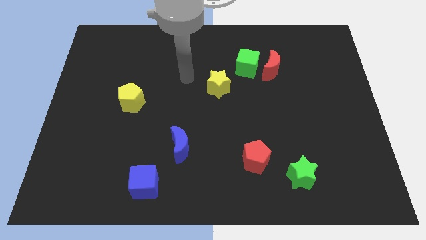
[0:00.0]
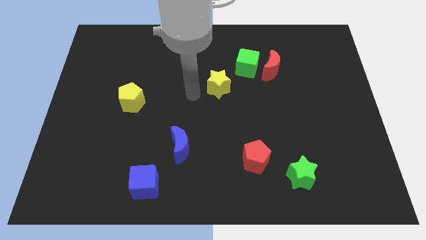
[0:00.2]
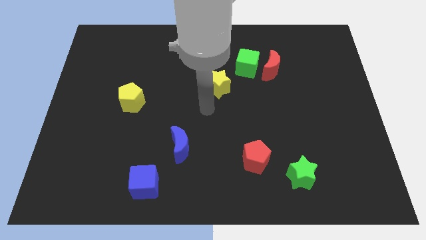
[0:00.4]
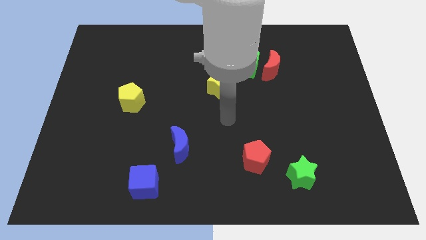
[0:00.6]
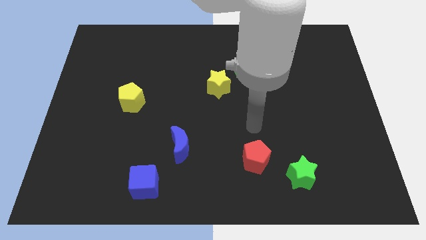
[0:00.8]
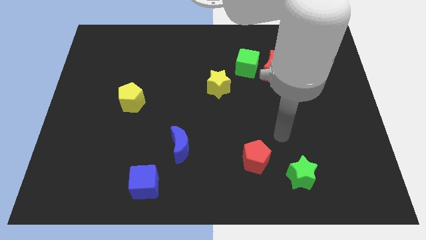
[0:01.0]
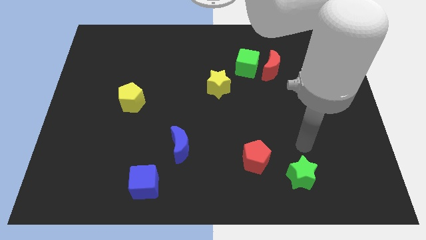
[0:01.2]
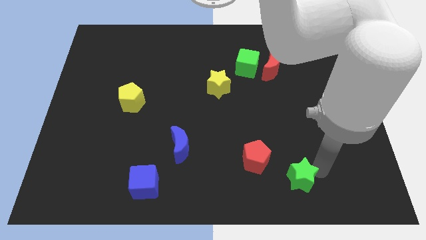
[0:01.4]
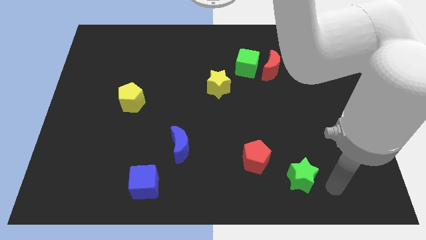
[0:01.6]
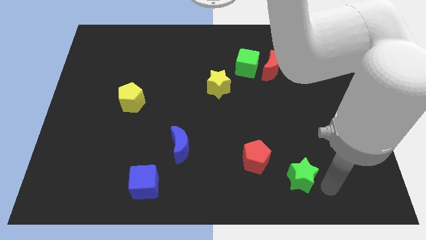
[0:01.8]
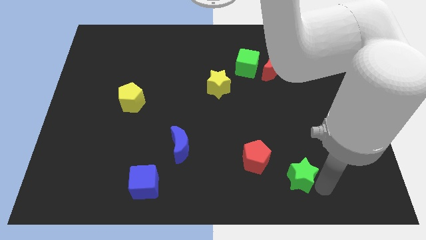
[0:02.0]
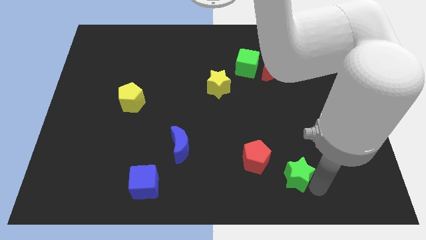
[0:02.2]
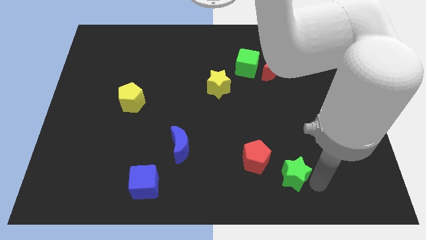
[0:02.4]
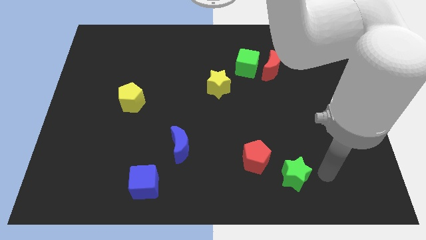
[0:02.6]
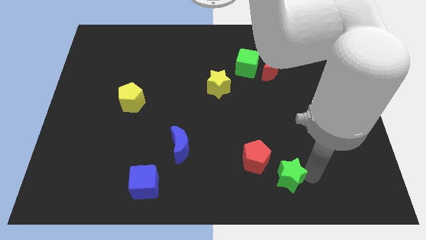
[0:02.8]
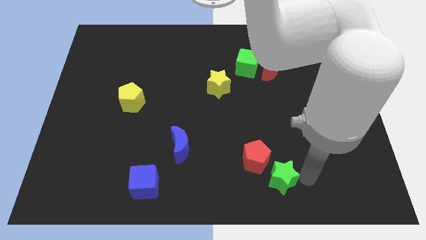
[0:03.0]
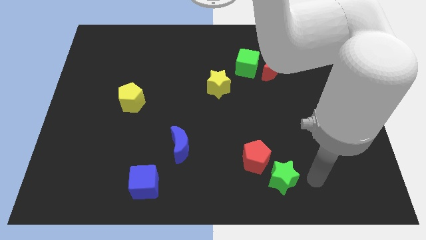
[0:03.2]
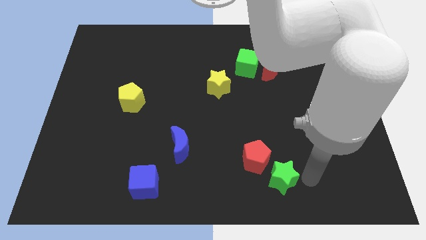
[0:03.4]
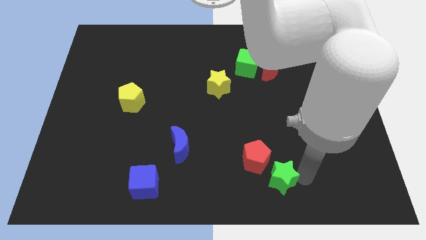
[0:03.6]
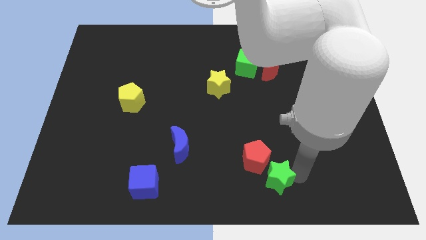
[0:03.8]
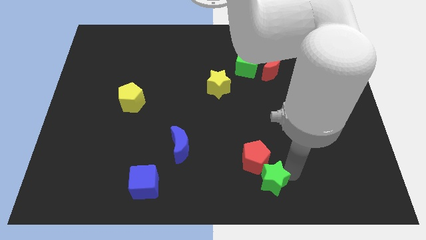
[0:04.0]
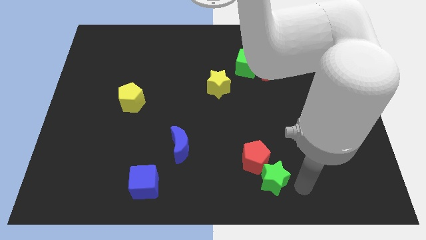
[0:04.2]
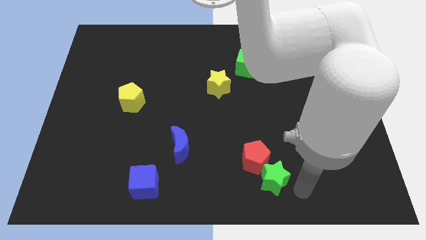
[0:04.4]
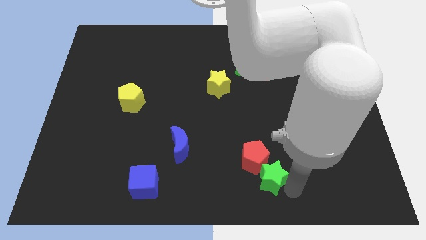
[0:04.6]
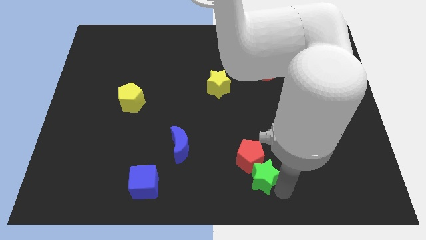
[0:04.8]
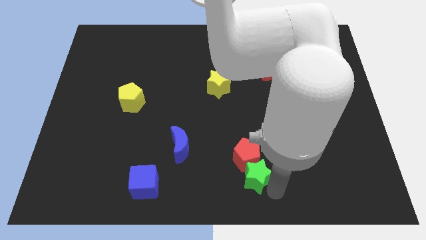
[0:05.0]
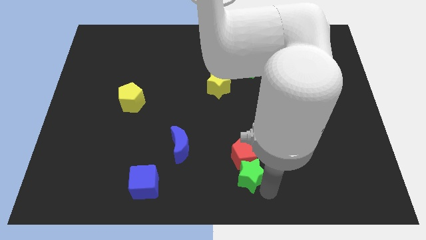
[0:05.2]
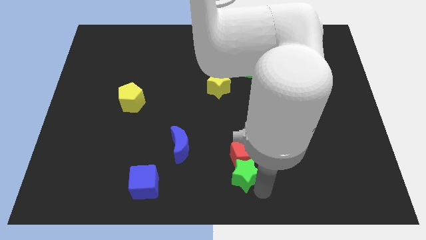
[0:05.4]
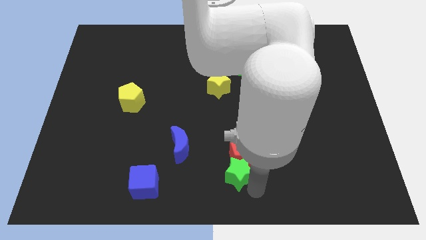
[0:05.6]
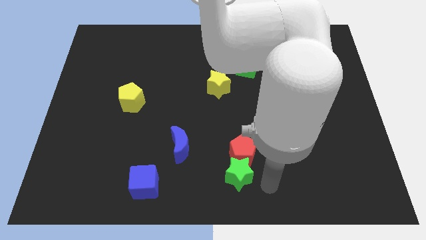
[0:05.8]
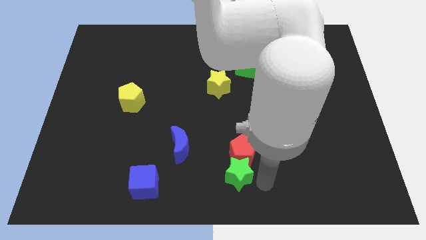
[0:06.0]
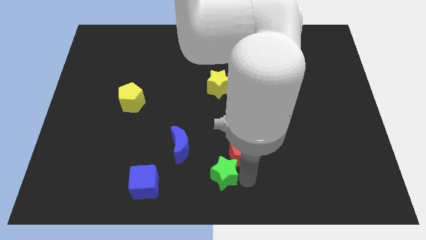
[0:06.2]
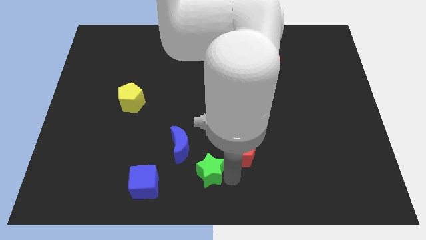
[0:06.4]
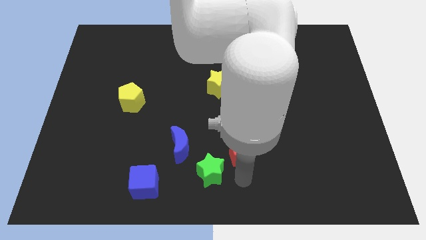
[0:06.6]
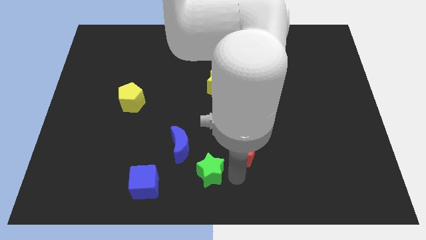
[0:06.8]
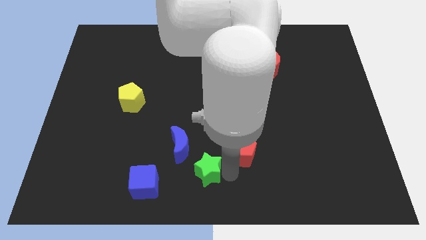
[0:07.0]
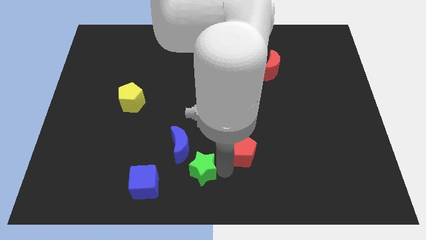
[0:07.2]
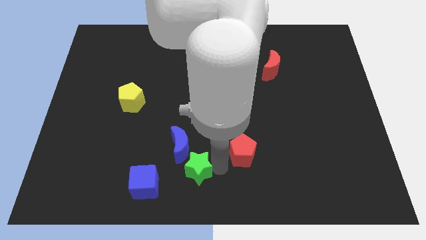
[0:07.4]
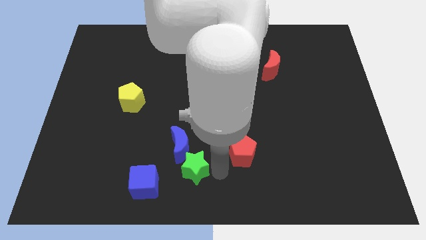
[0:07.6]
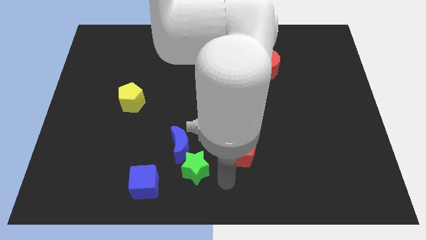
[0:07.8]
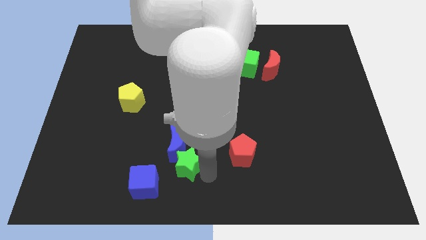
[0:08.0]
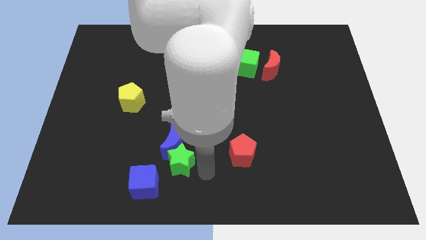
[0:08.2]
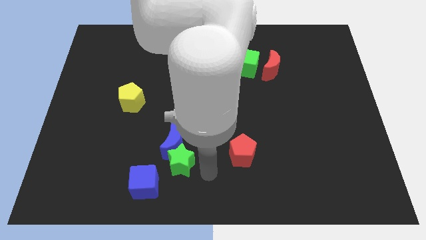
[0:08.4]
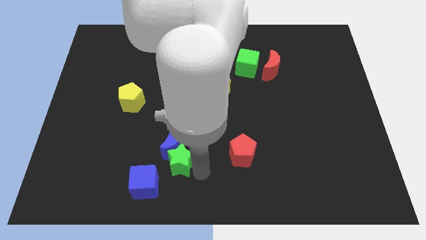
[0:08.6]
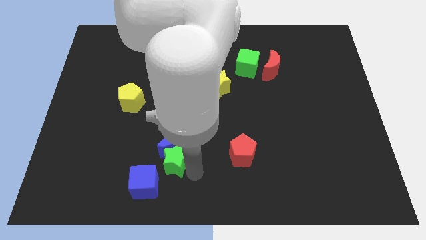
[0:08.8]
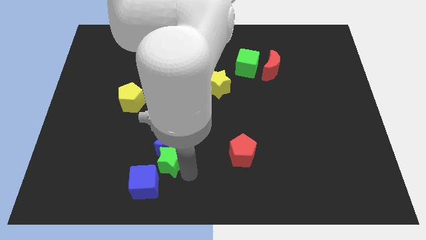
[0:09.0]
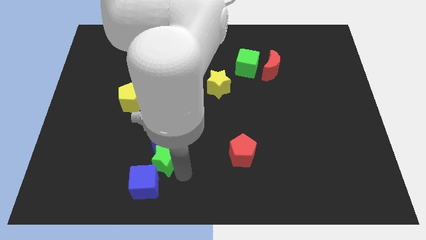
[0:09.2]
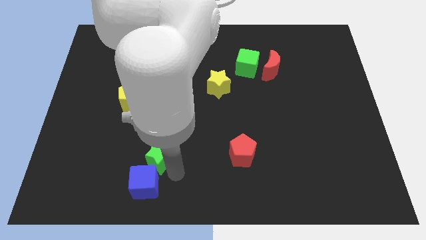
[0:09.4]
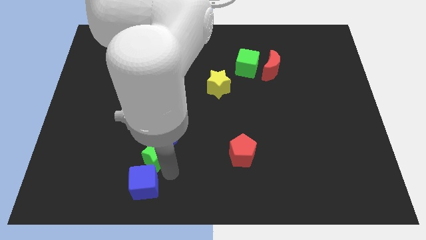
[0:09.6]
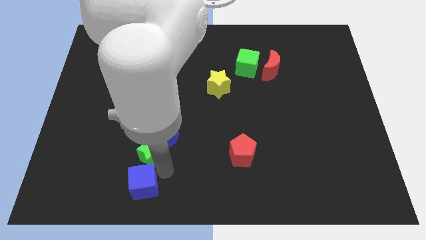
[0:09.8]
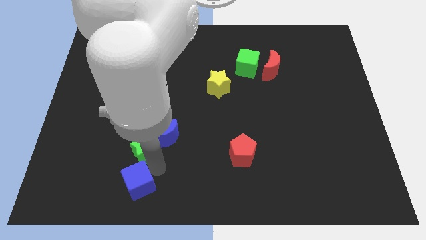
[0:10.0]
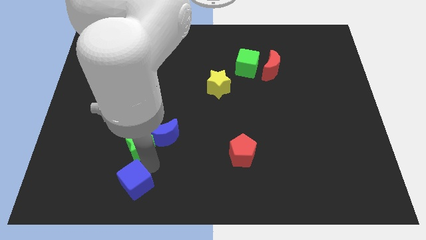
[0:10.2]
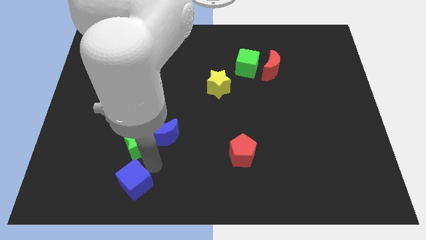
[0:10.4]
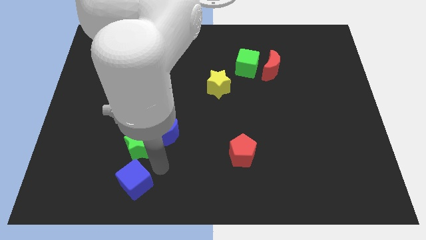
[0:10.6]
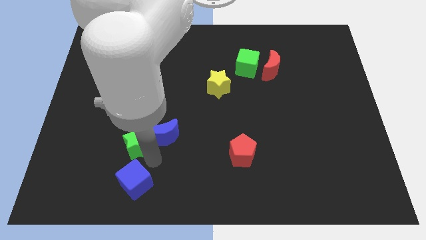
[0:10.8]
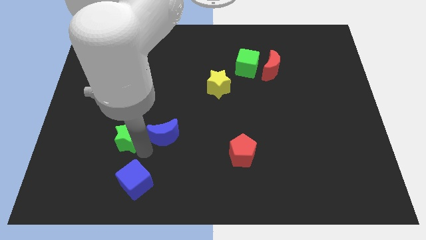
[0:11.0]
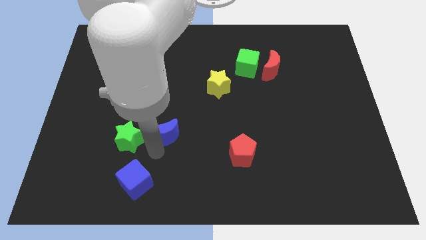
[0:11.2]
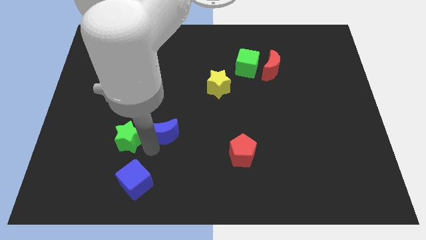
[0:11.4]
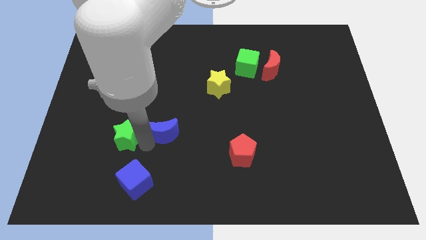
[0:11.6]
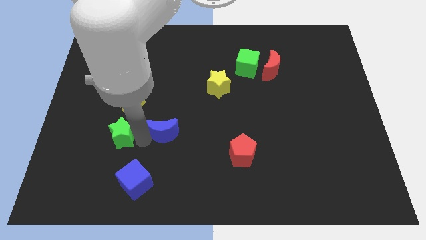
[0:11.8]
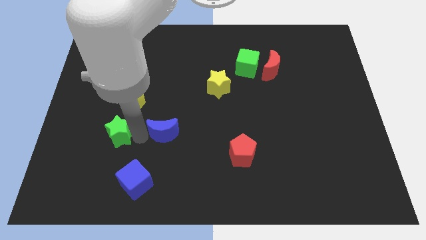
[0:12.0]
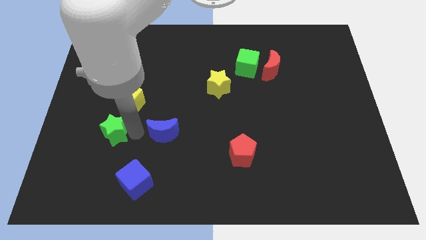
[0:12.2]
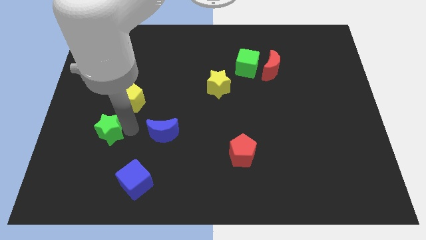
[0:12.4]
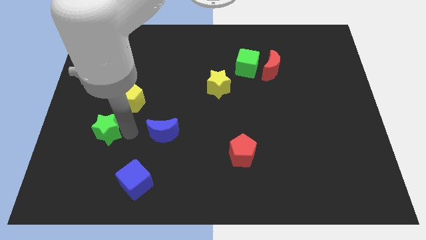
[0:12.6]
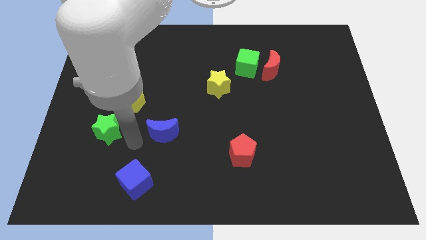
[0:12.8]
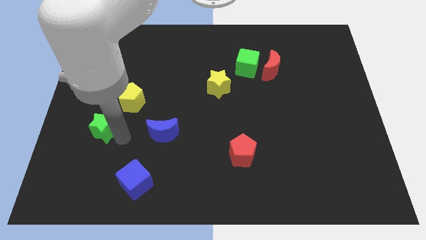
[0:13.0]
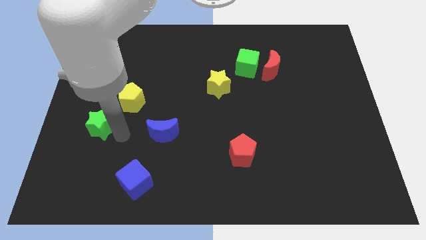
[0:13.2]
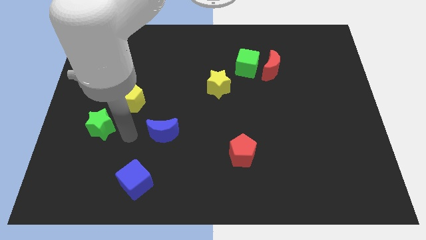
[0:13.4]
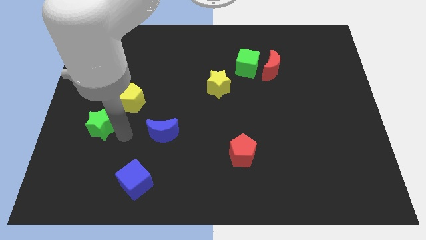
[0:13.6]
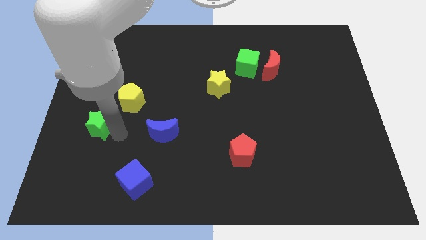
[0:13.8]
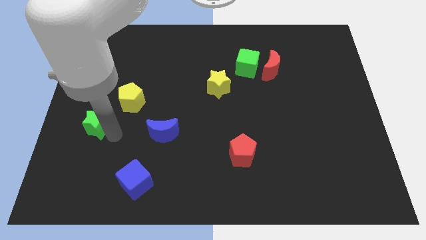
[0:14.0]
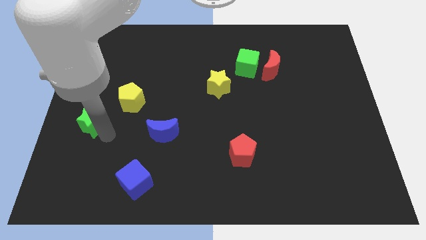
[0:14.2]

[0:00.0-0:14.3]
put the green star to the center left
